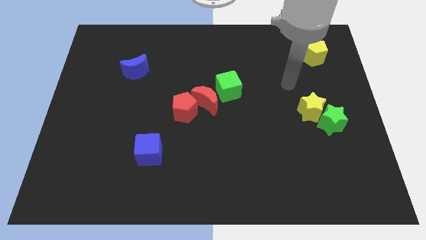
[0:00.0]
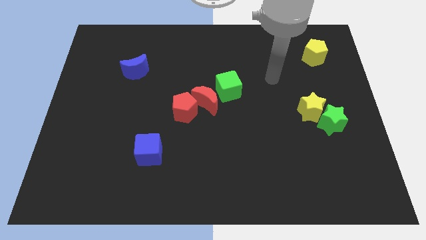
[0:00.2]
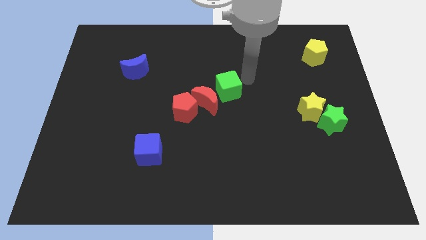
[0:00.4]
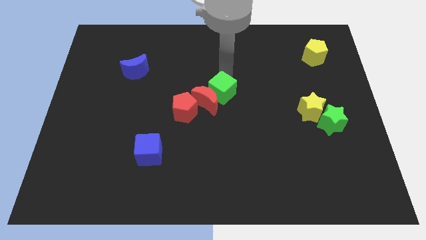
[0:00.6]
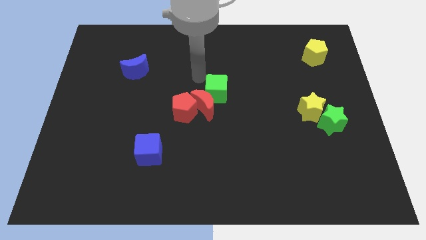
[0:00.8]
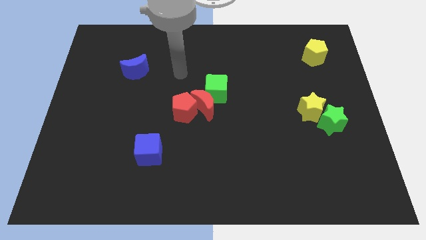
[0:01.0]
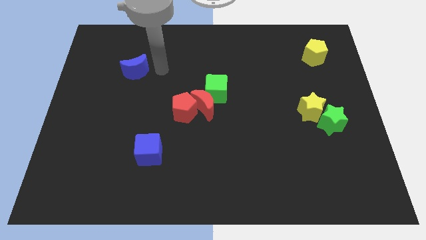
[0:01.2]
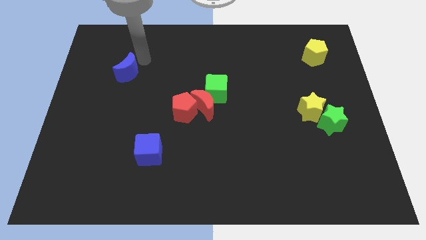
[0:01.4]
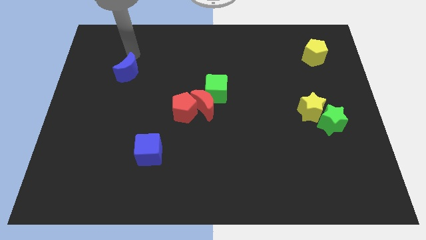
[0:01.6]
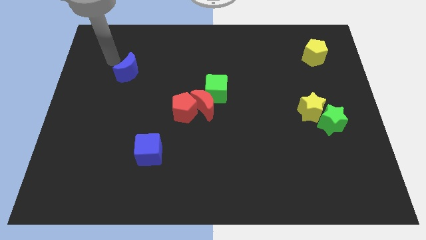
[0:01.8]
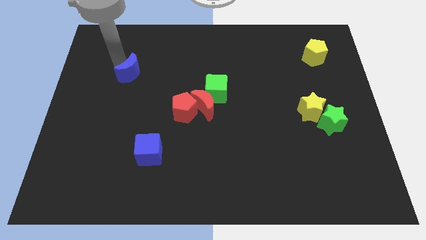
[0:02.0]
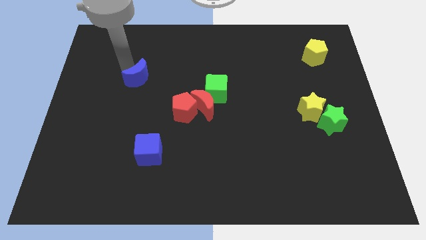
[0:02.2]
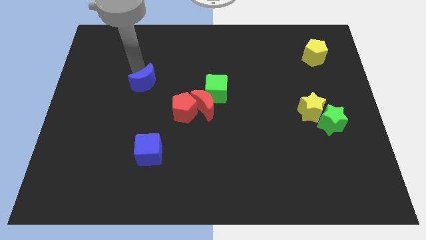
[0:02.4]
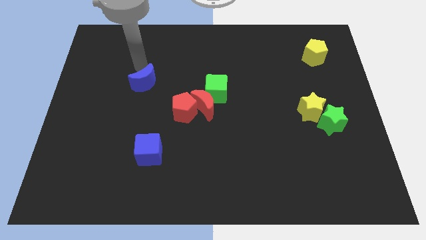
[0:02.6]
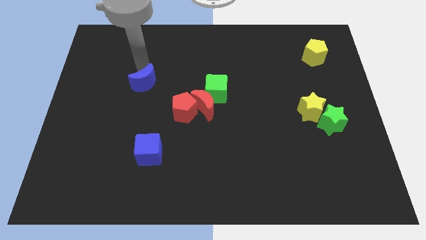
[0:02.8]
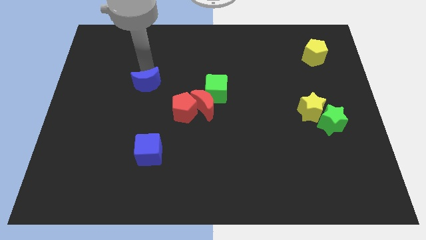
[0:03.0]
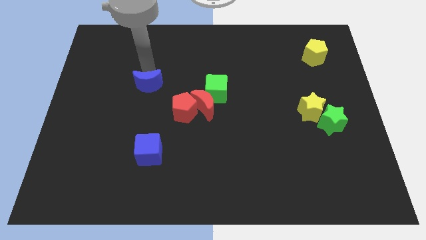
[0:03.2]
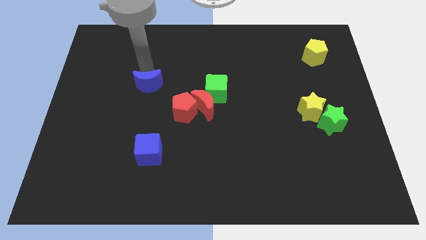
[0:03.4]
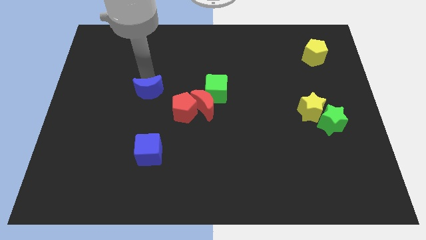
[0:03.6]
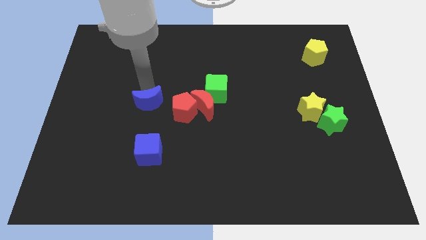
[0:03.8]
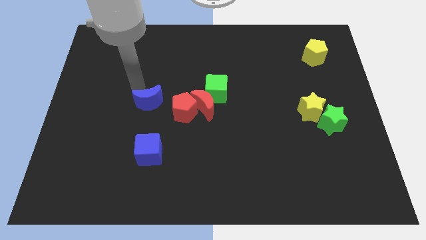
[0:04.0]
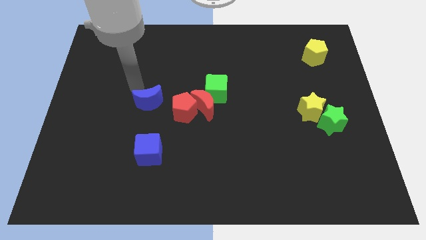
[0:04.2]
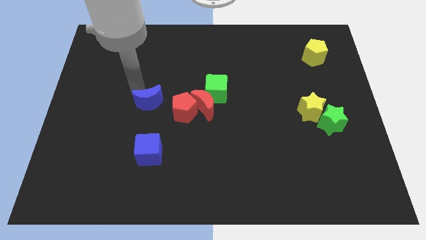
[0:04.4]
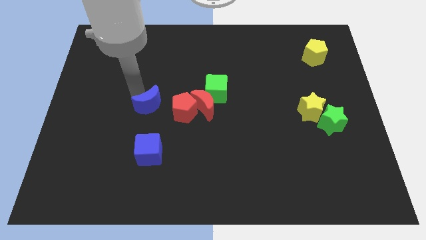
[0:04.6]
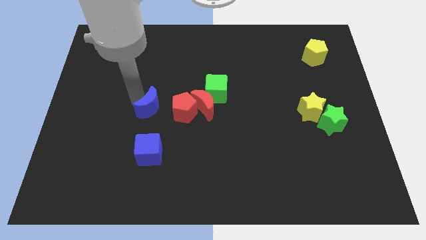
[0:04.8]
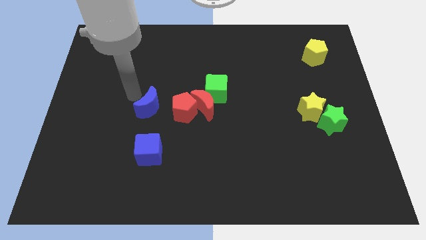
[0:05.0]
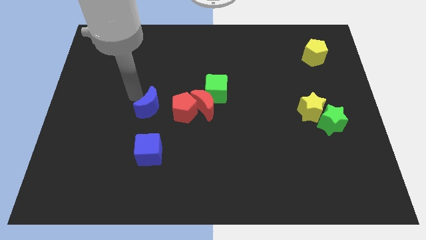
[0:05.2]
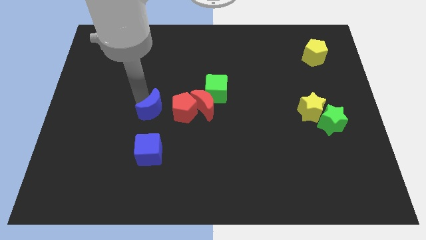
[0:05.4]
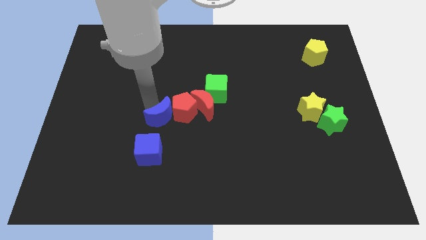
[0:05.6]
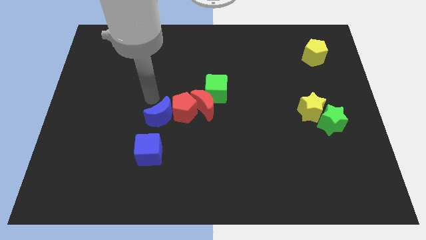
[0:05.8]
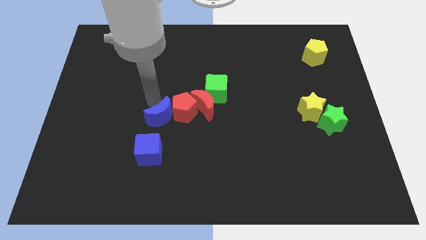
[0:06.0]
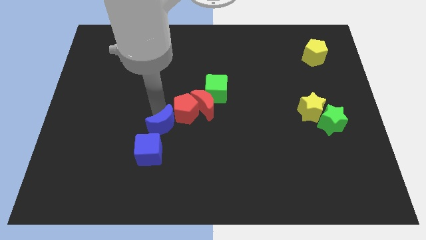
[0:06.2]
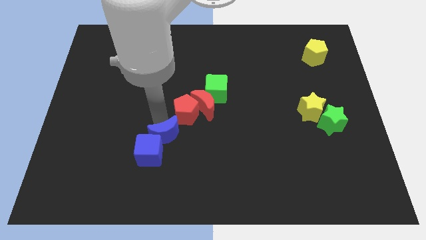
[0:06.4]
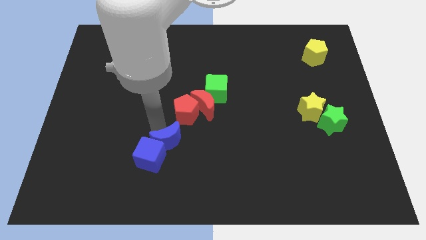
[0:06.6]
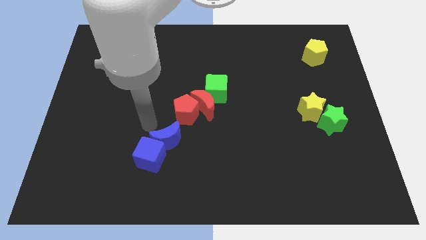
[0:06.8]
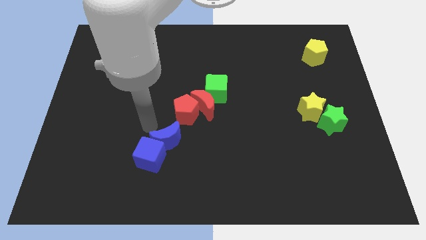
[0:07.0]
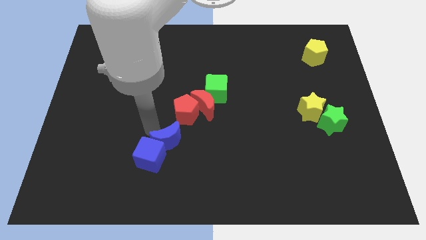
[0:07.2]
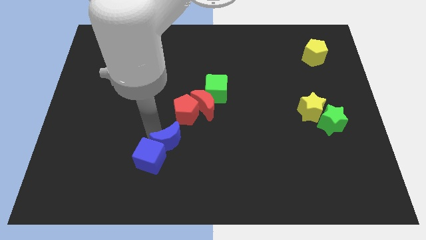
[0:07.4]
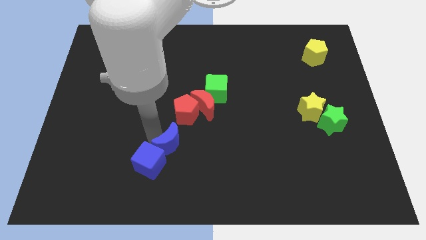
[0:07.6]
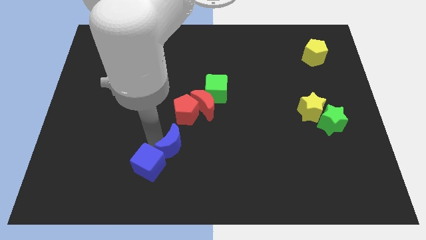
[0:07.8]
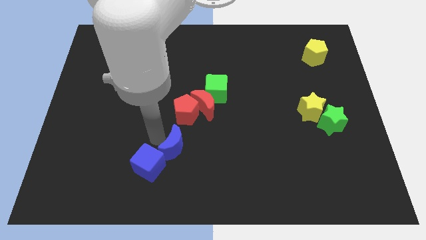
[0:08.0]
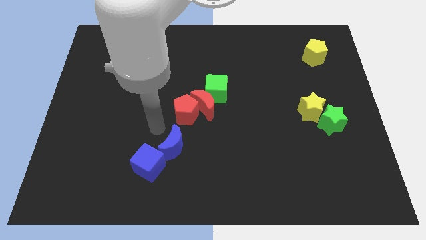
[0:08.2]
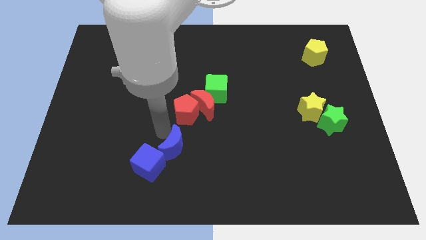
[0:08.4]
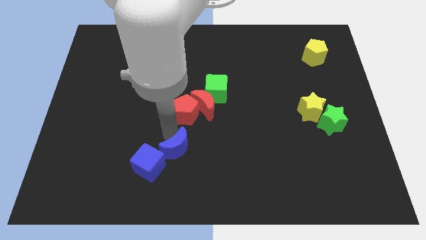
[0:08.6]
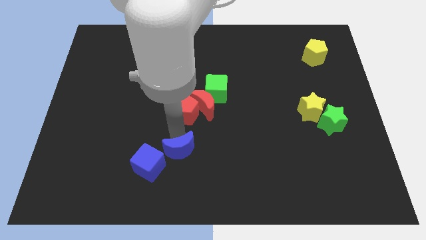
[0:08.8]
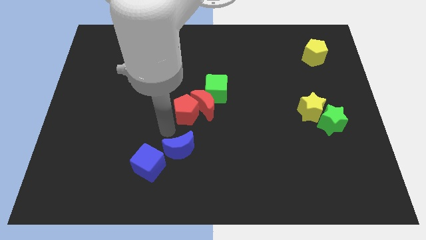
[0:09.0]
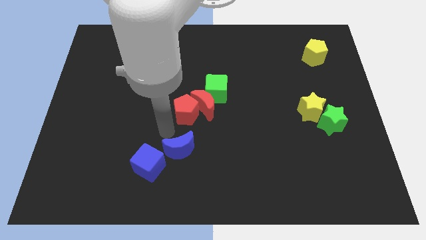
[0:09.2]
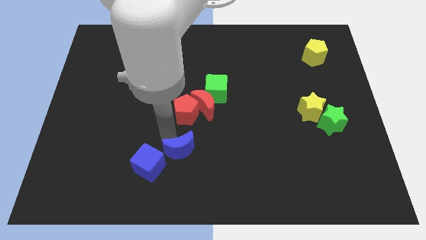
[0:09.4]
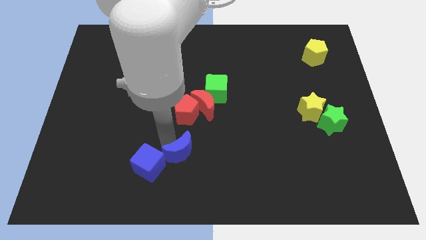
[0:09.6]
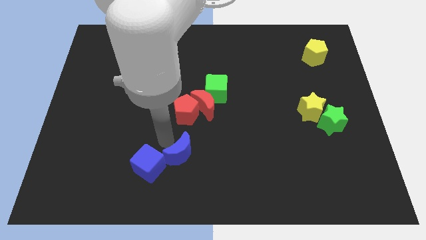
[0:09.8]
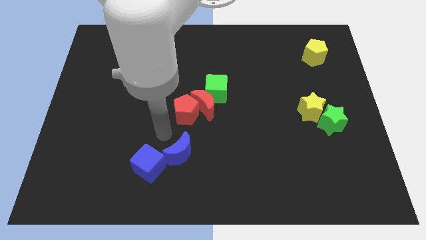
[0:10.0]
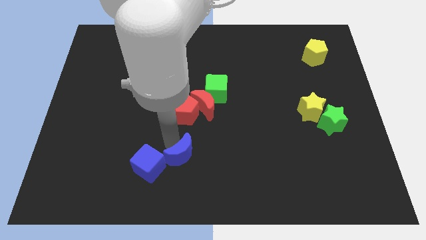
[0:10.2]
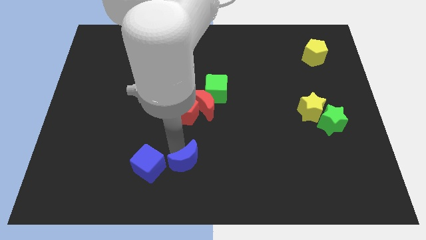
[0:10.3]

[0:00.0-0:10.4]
slide the blue moon to the bottom side

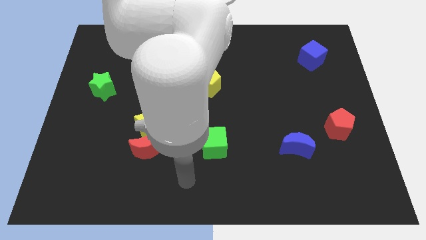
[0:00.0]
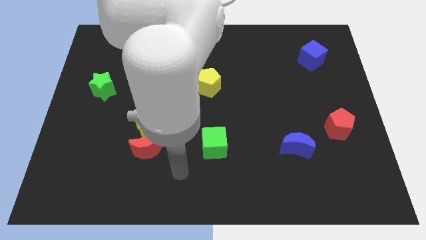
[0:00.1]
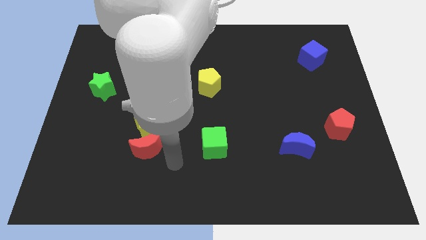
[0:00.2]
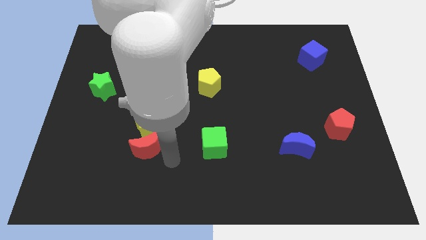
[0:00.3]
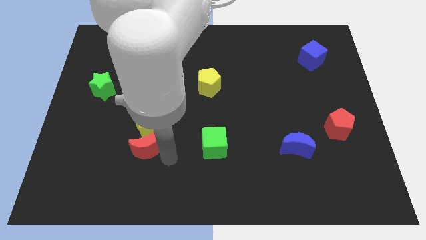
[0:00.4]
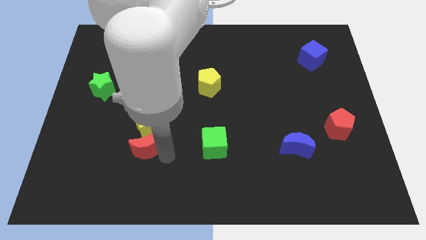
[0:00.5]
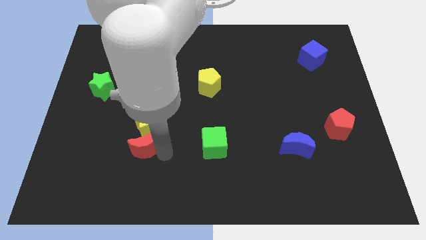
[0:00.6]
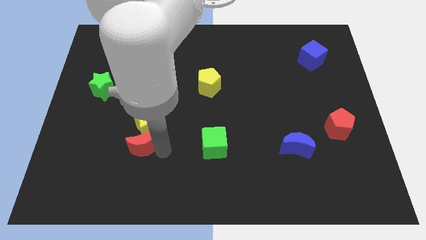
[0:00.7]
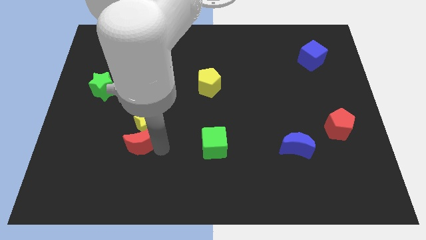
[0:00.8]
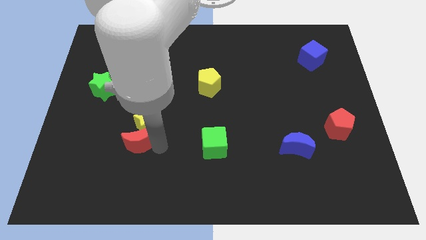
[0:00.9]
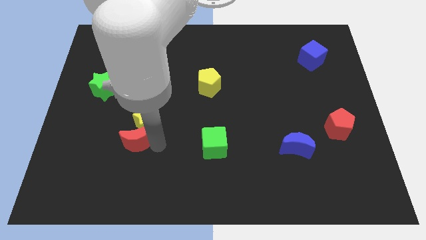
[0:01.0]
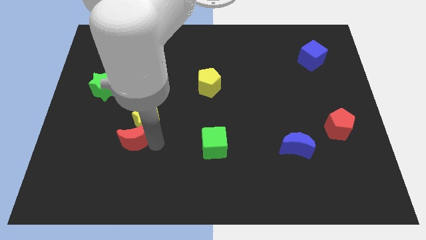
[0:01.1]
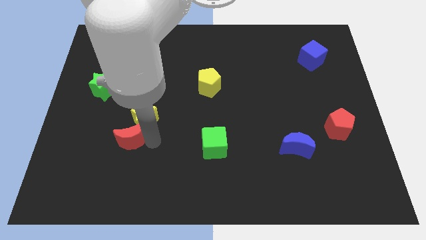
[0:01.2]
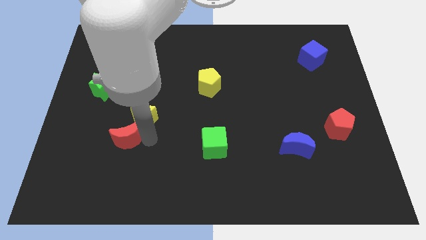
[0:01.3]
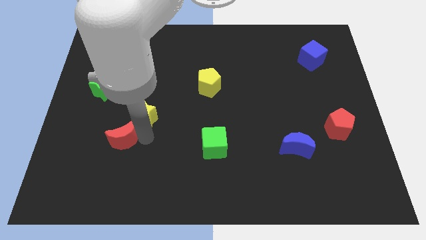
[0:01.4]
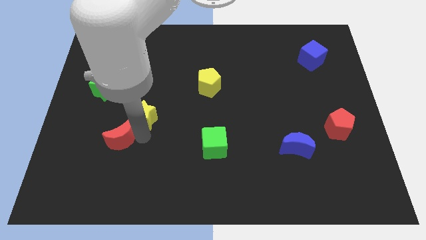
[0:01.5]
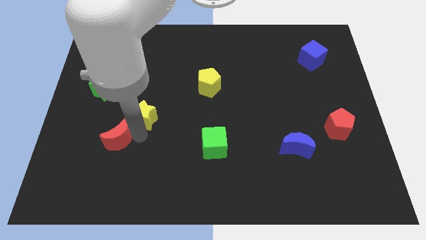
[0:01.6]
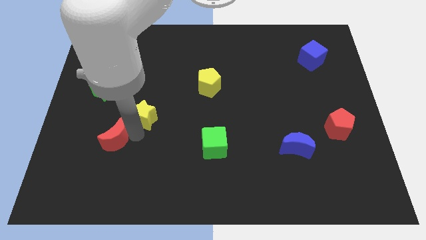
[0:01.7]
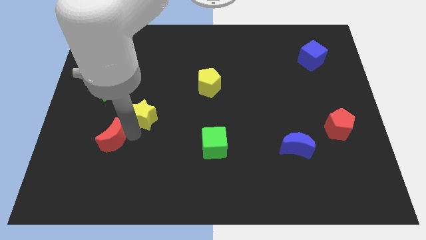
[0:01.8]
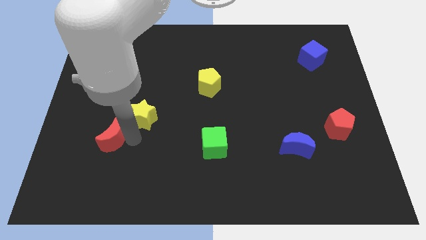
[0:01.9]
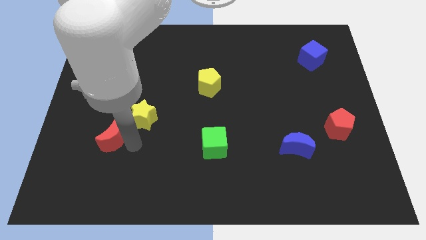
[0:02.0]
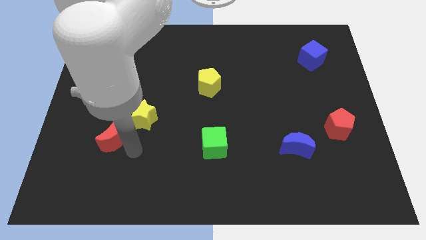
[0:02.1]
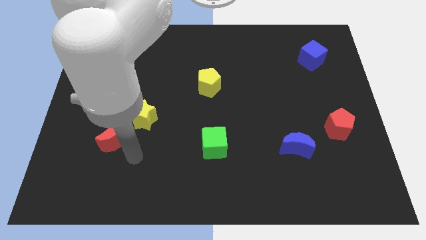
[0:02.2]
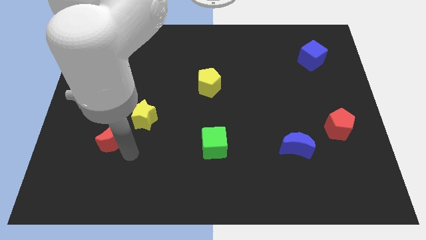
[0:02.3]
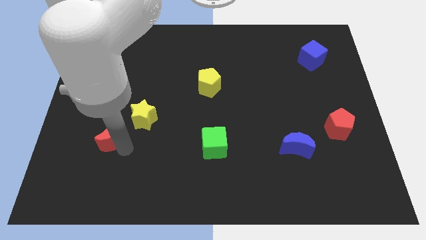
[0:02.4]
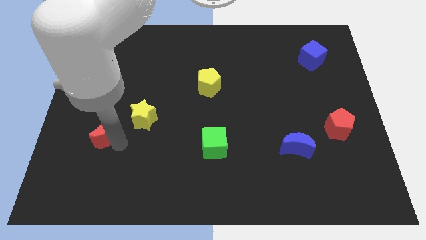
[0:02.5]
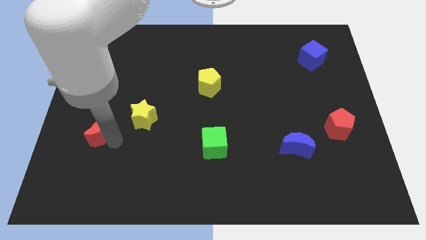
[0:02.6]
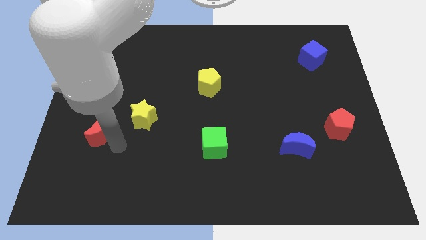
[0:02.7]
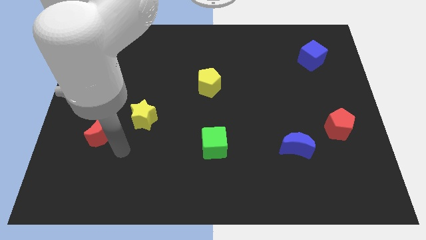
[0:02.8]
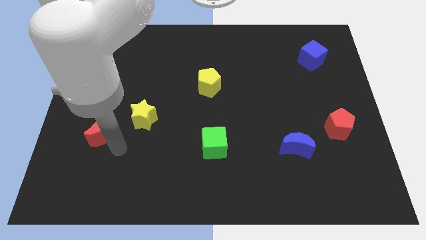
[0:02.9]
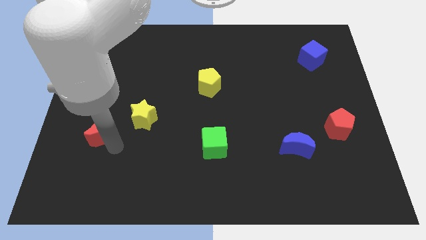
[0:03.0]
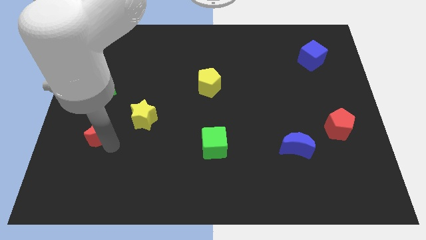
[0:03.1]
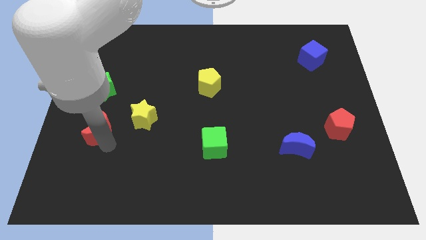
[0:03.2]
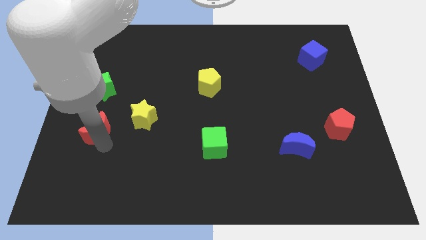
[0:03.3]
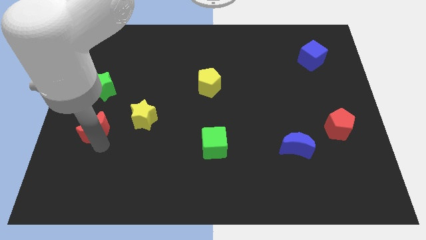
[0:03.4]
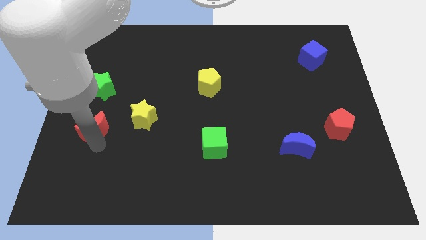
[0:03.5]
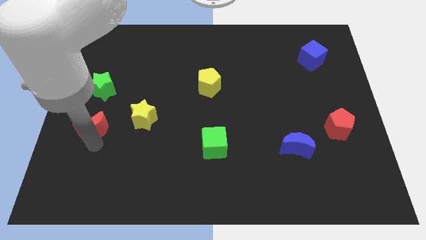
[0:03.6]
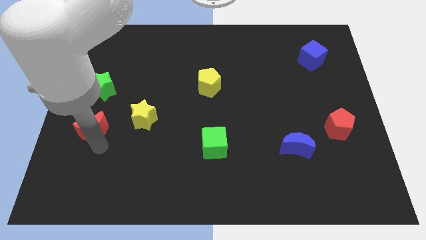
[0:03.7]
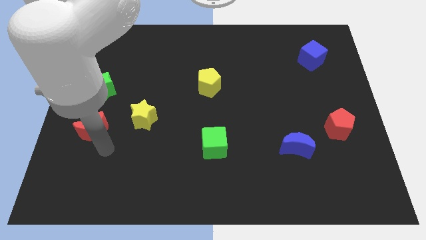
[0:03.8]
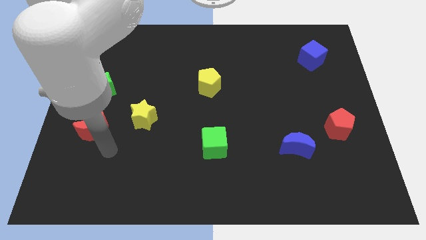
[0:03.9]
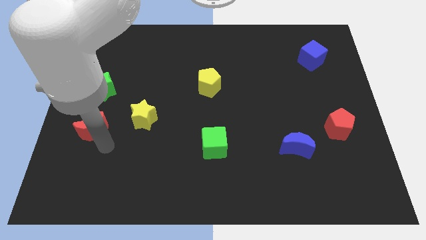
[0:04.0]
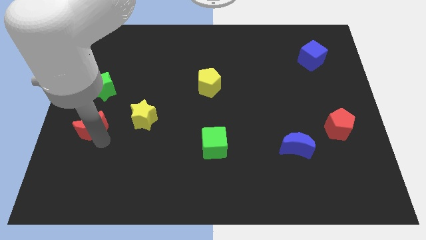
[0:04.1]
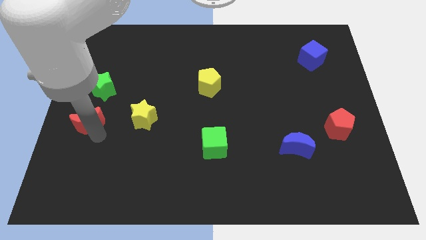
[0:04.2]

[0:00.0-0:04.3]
slide the red moon to the left side
